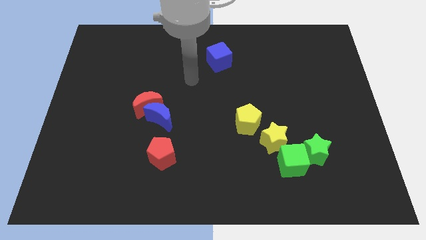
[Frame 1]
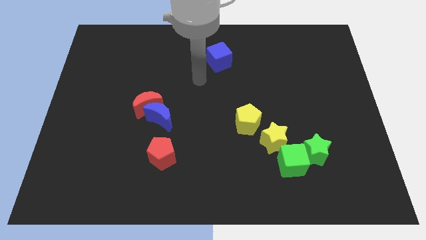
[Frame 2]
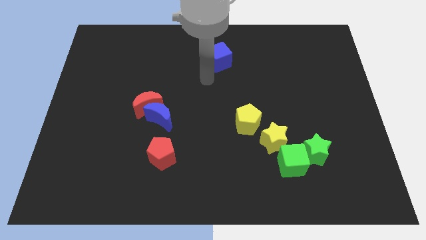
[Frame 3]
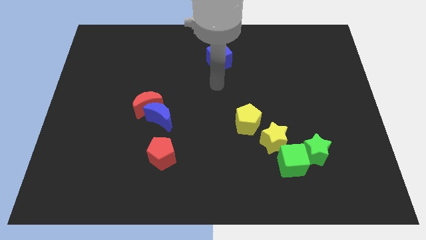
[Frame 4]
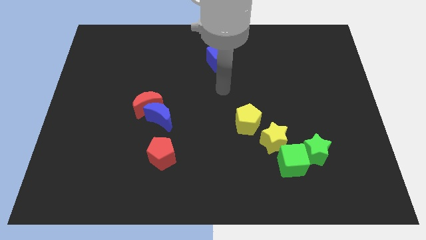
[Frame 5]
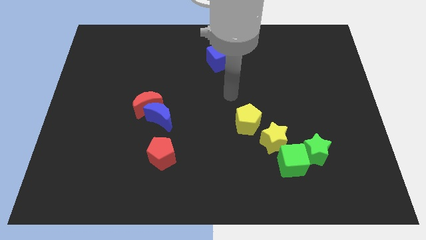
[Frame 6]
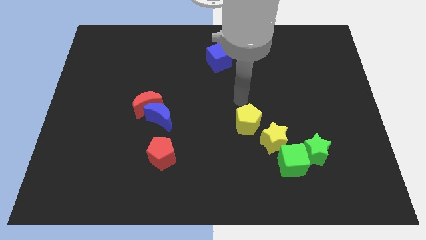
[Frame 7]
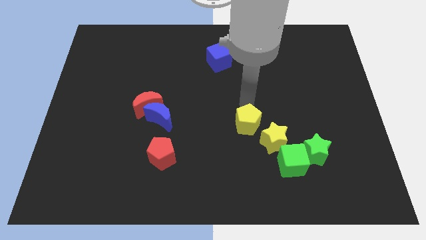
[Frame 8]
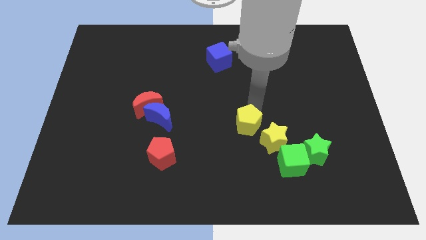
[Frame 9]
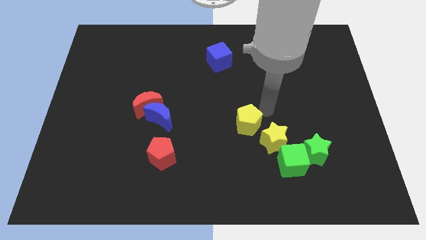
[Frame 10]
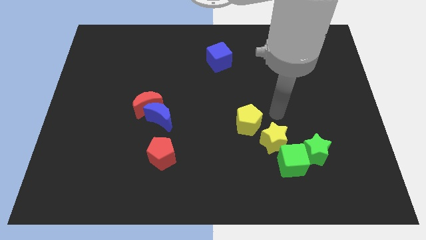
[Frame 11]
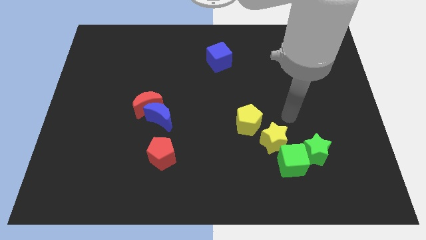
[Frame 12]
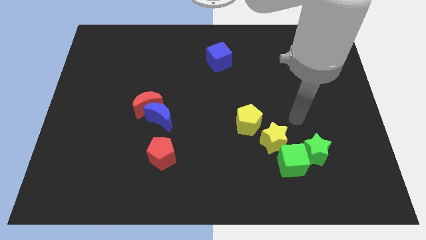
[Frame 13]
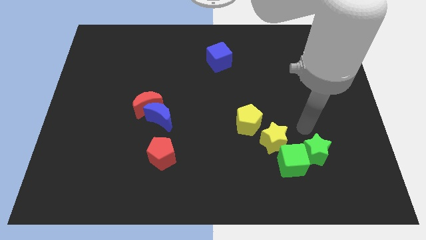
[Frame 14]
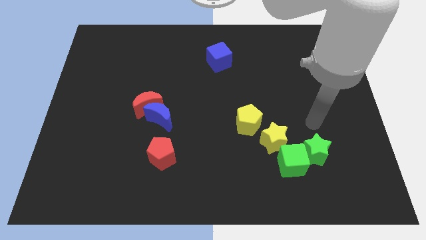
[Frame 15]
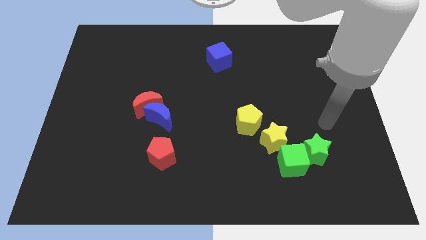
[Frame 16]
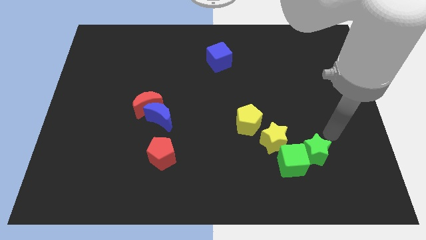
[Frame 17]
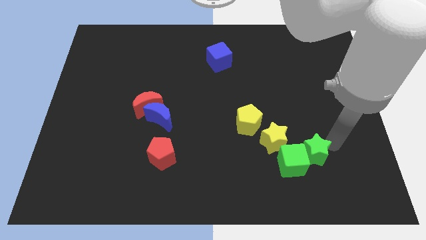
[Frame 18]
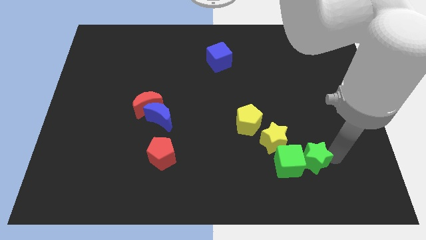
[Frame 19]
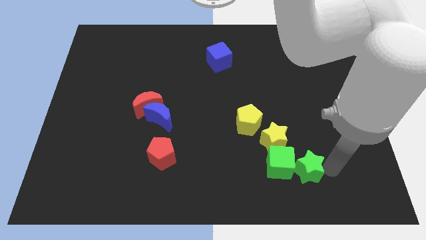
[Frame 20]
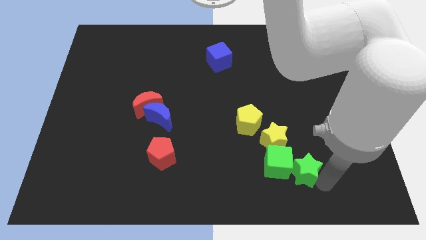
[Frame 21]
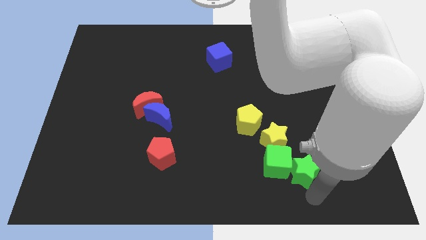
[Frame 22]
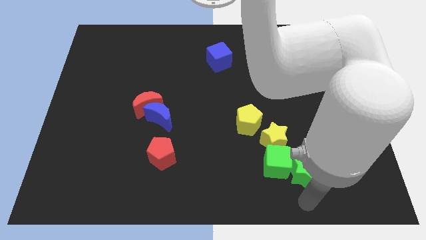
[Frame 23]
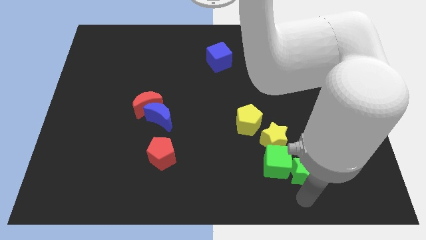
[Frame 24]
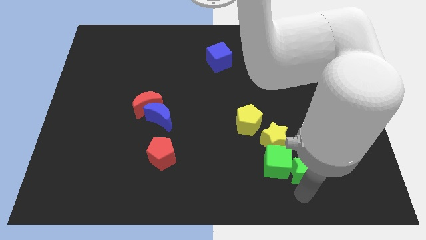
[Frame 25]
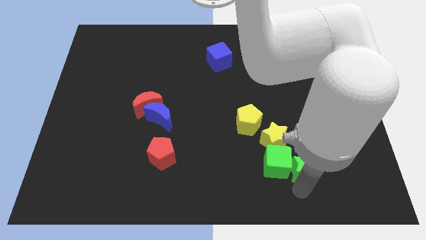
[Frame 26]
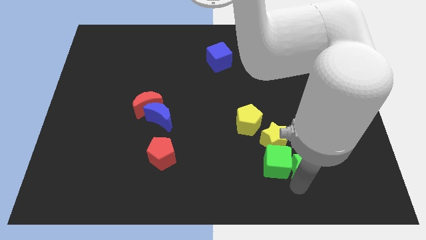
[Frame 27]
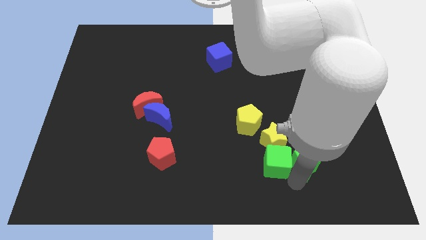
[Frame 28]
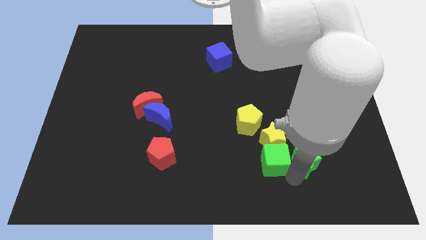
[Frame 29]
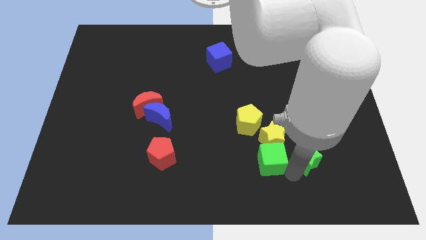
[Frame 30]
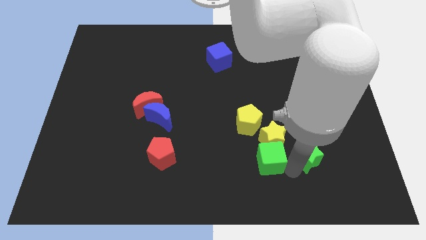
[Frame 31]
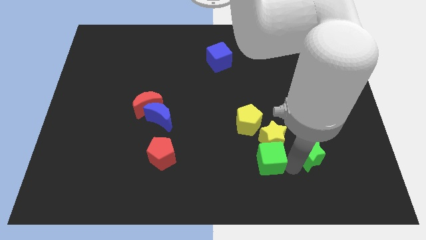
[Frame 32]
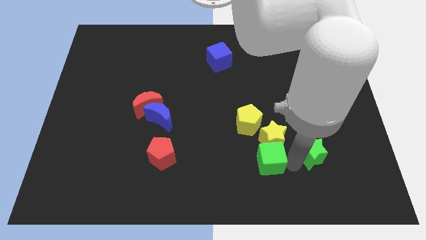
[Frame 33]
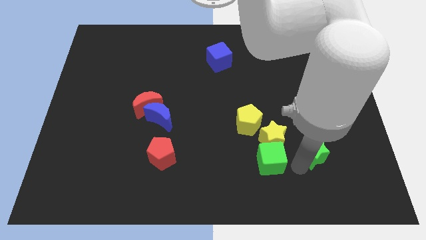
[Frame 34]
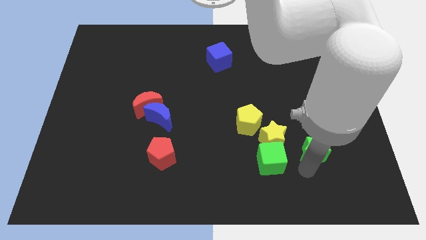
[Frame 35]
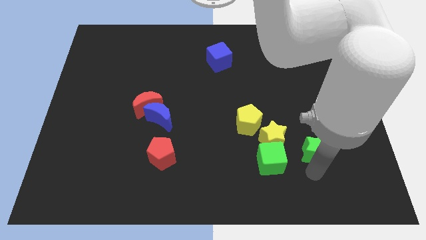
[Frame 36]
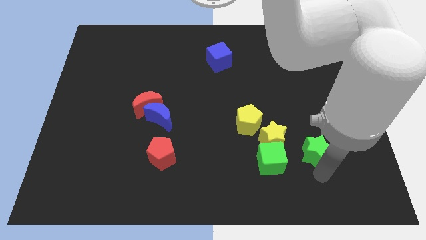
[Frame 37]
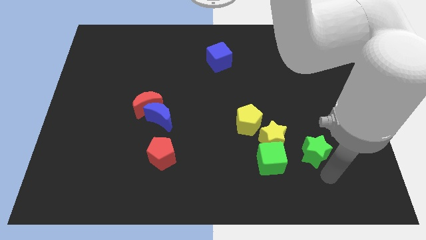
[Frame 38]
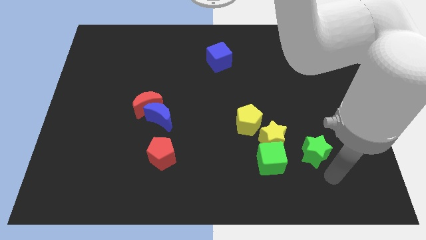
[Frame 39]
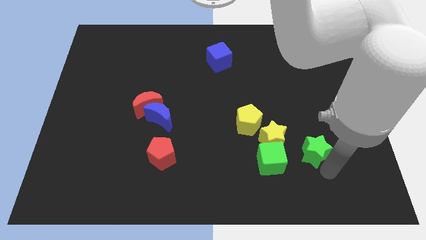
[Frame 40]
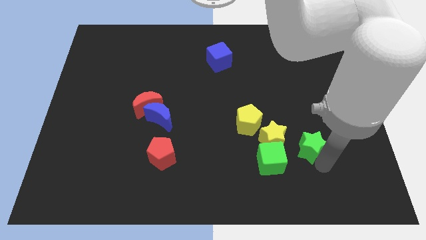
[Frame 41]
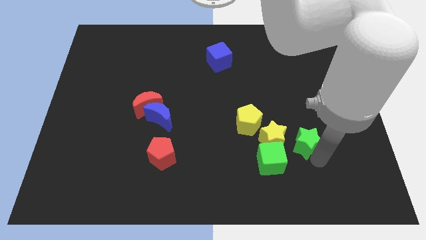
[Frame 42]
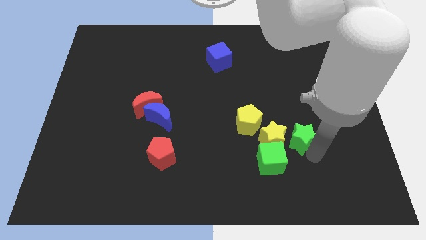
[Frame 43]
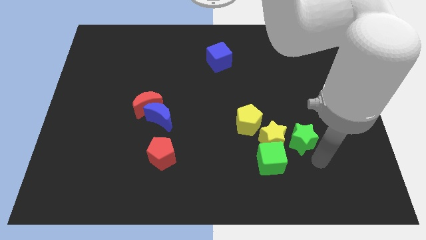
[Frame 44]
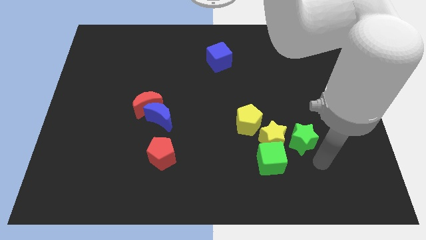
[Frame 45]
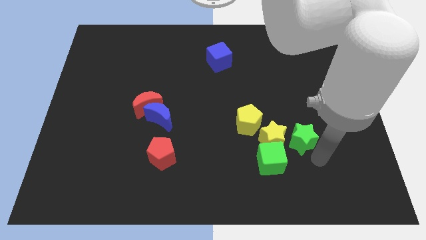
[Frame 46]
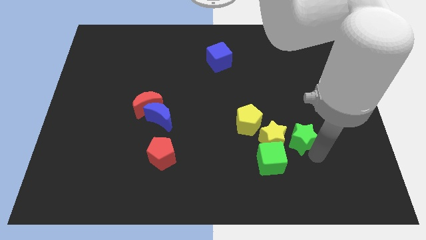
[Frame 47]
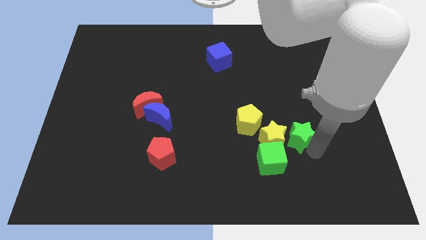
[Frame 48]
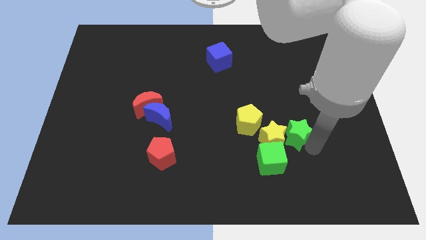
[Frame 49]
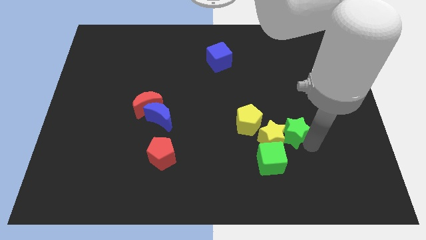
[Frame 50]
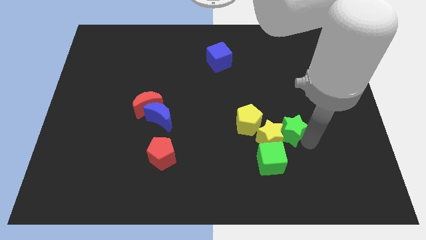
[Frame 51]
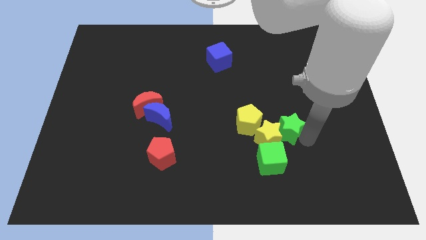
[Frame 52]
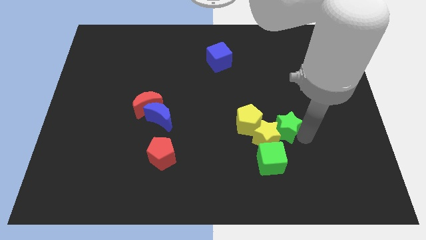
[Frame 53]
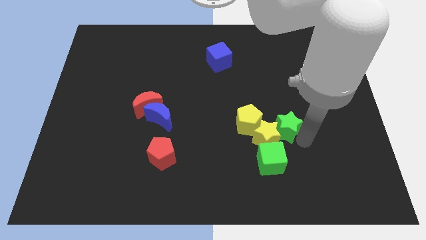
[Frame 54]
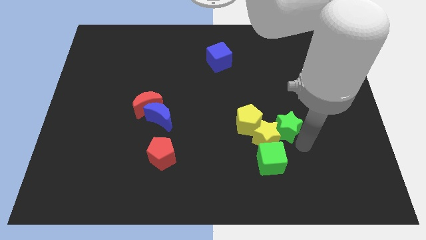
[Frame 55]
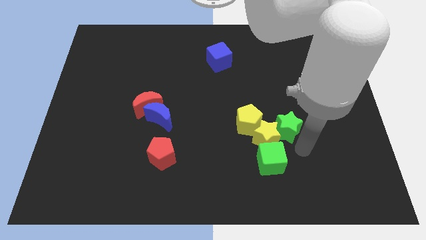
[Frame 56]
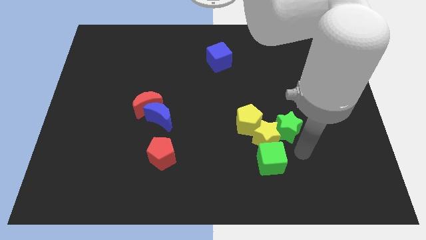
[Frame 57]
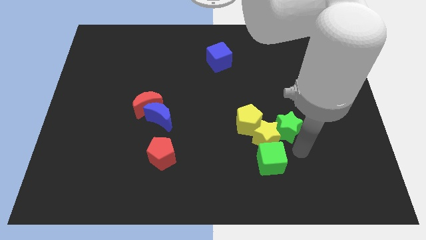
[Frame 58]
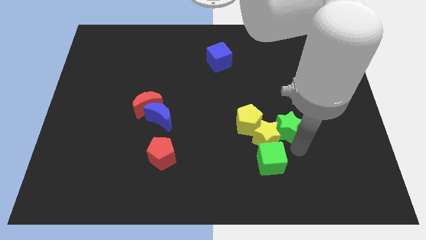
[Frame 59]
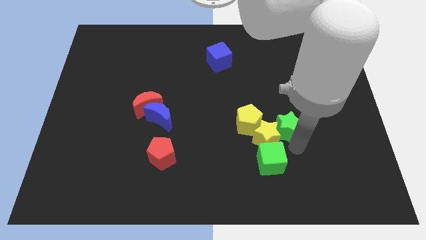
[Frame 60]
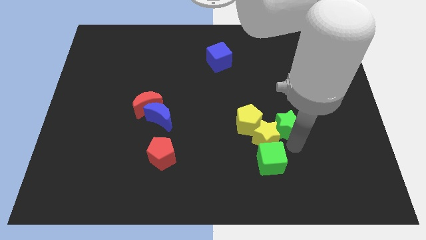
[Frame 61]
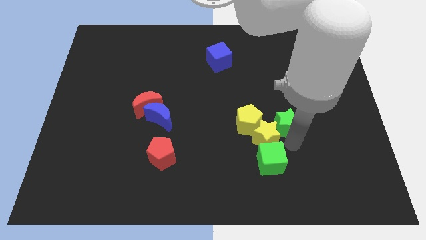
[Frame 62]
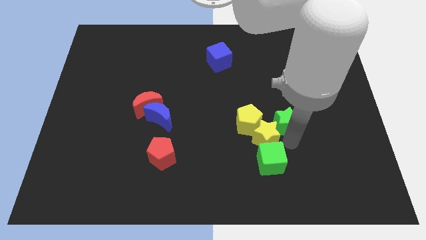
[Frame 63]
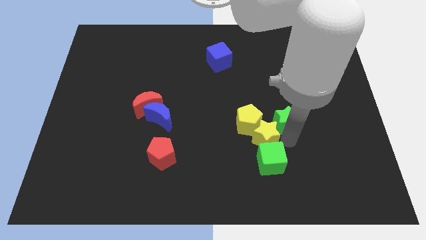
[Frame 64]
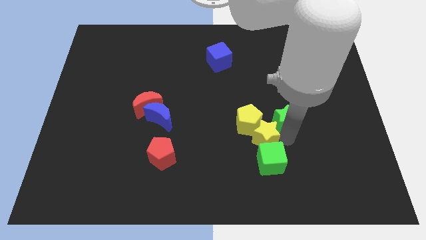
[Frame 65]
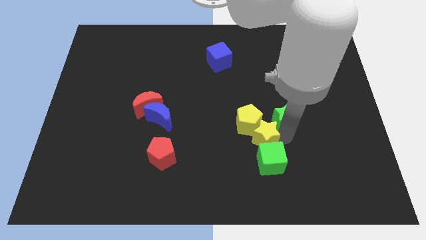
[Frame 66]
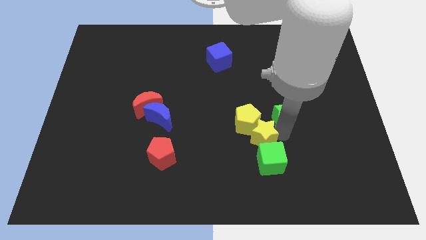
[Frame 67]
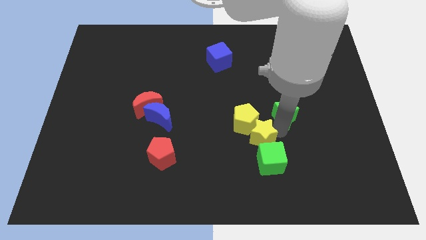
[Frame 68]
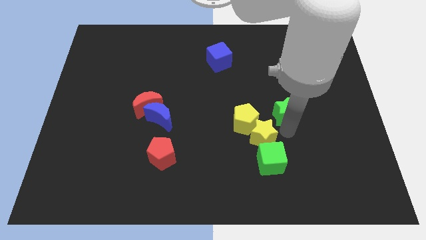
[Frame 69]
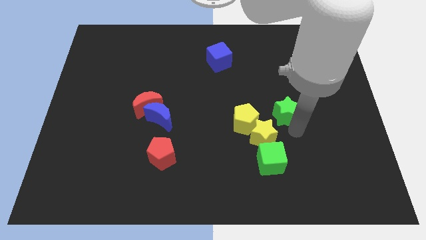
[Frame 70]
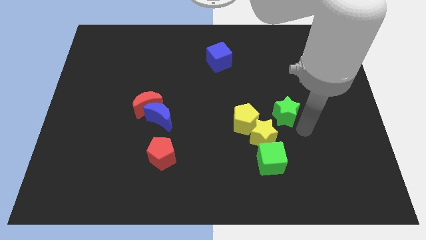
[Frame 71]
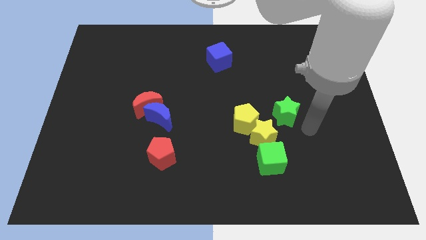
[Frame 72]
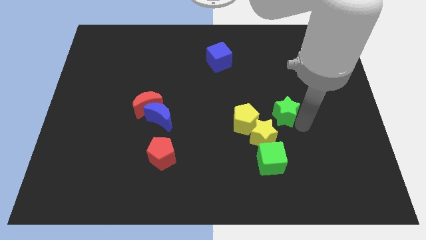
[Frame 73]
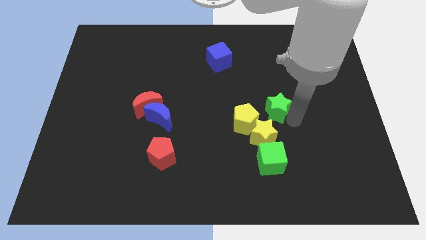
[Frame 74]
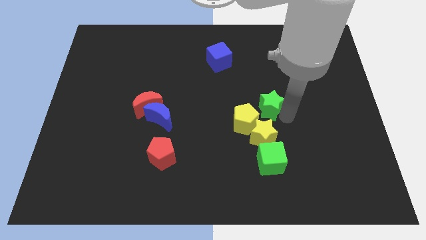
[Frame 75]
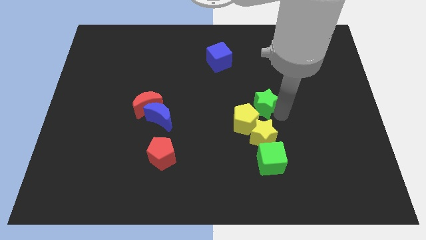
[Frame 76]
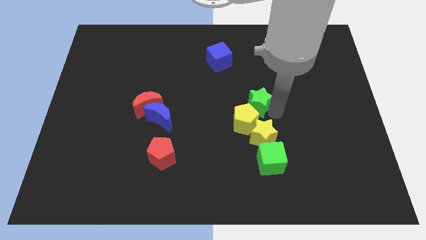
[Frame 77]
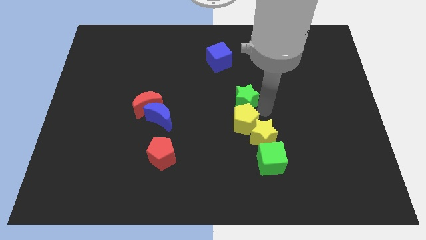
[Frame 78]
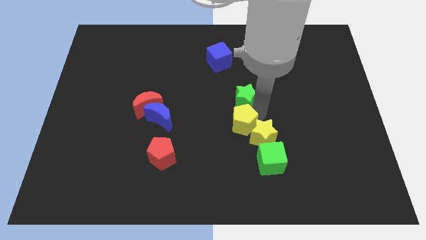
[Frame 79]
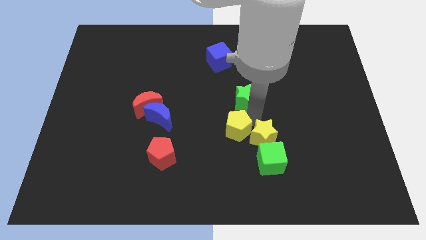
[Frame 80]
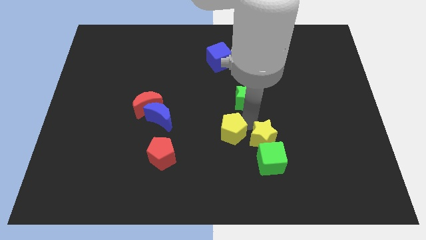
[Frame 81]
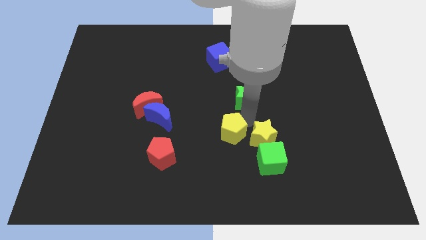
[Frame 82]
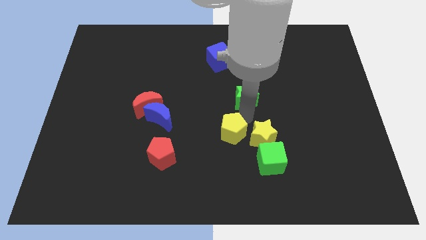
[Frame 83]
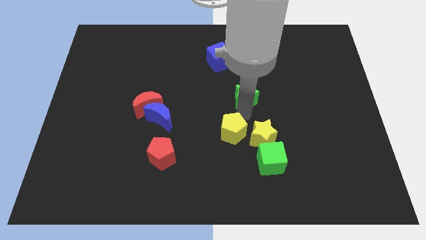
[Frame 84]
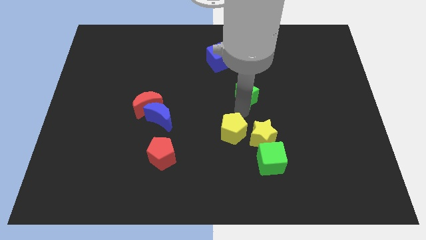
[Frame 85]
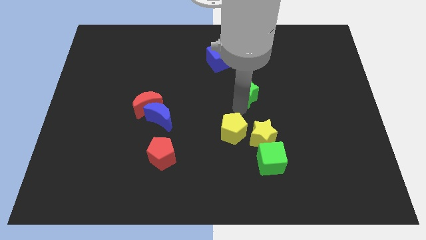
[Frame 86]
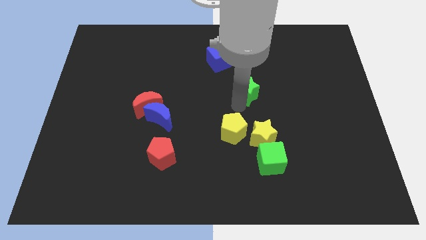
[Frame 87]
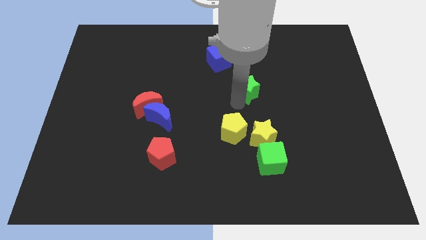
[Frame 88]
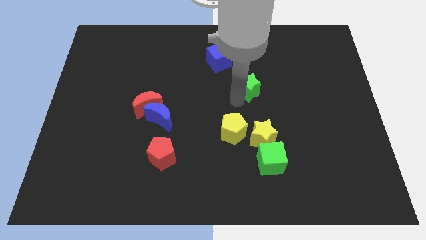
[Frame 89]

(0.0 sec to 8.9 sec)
put the green star to the bottom right of the blue cube
